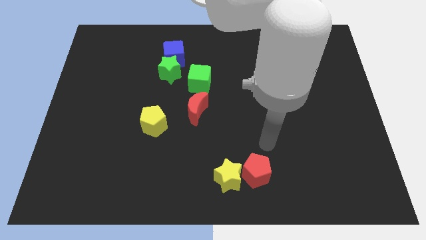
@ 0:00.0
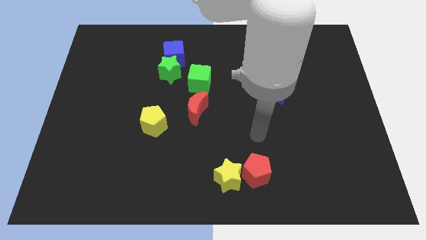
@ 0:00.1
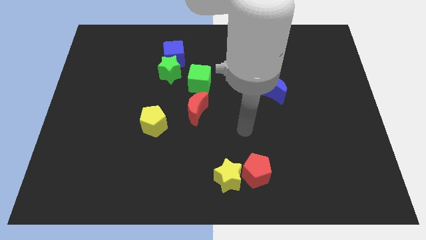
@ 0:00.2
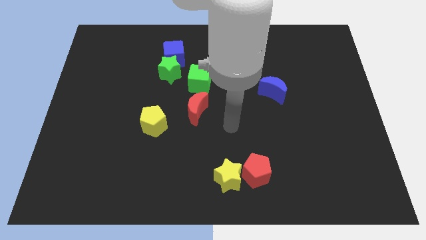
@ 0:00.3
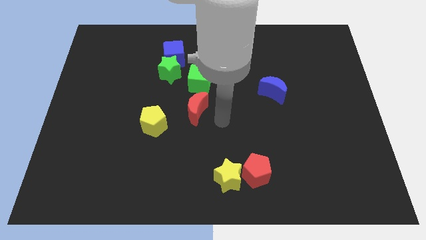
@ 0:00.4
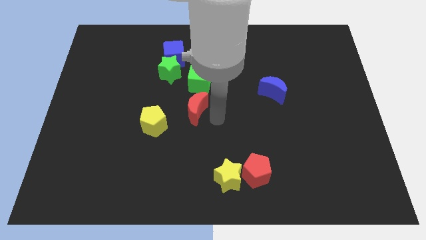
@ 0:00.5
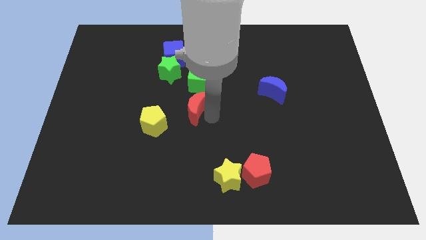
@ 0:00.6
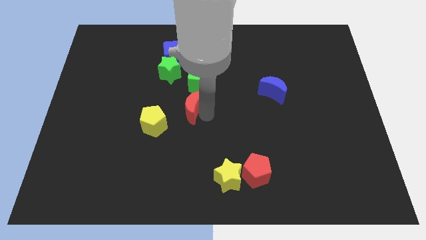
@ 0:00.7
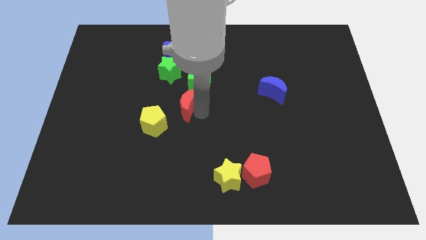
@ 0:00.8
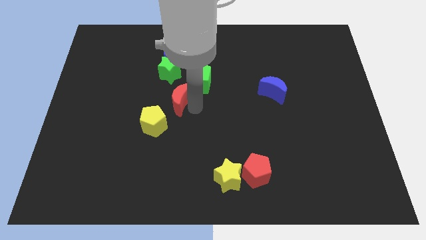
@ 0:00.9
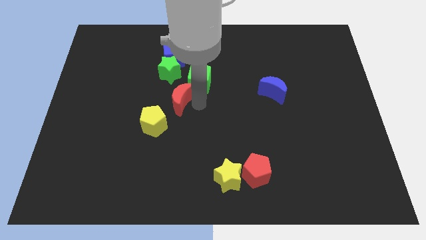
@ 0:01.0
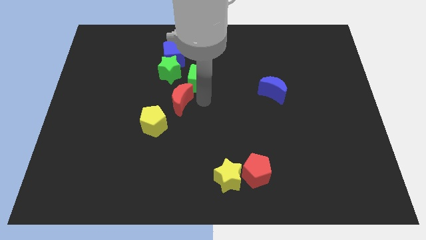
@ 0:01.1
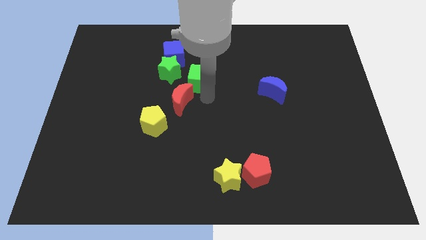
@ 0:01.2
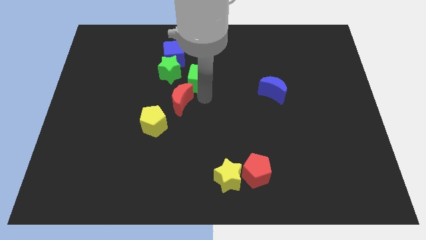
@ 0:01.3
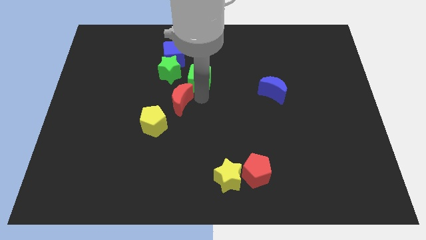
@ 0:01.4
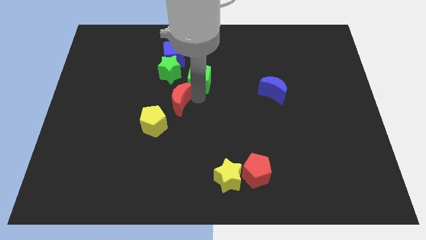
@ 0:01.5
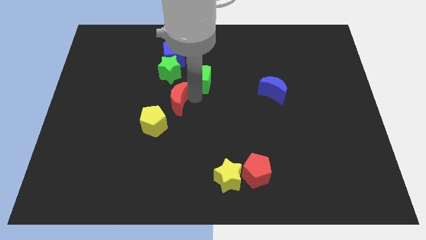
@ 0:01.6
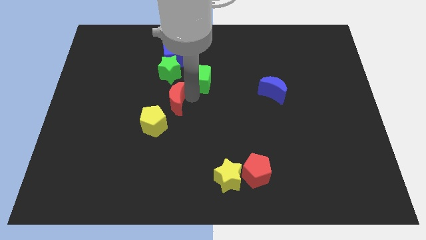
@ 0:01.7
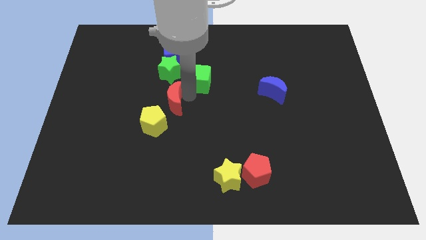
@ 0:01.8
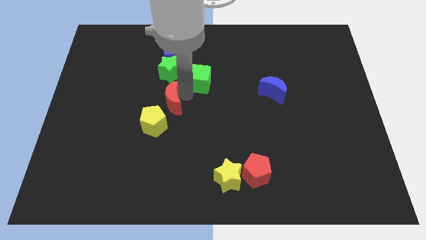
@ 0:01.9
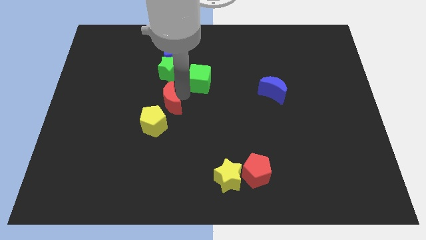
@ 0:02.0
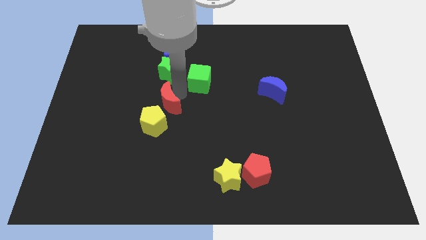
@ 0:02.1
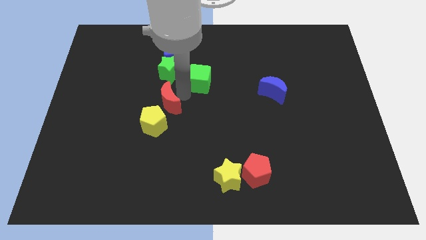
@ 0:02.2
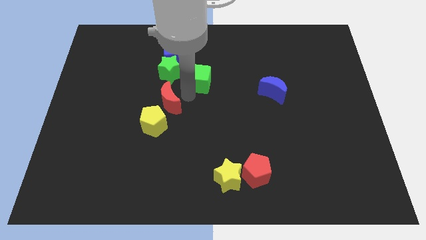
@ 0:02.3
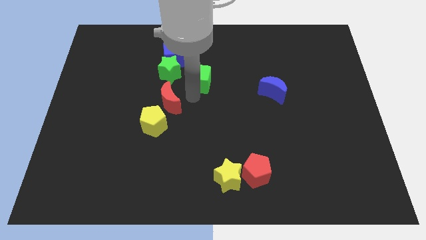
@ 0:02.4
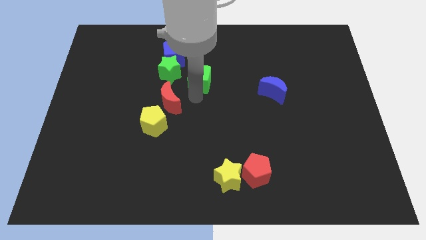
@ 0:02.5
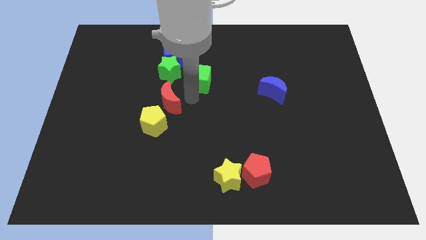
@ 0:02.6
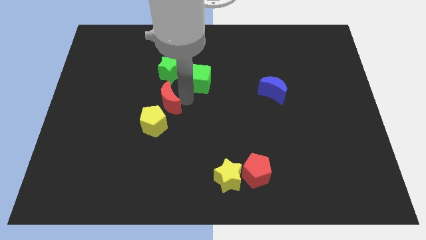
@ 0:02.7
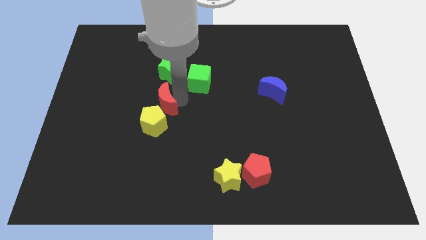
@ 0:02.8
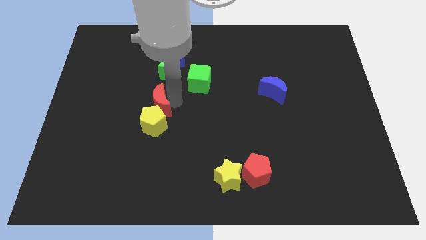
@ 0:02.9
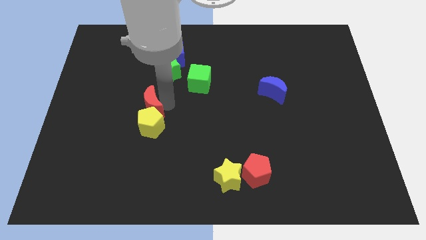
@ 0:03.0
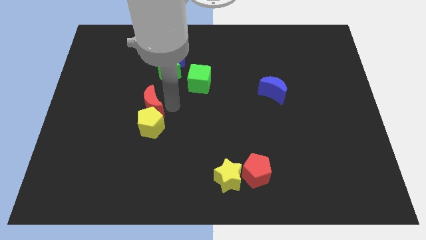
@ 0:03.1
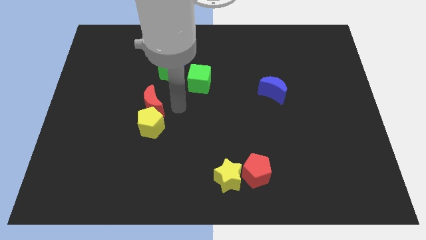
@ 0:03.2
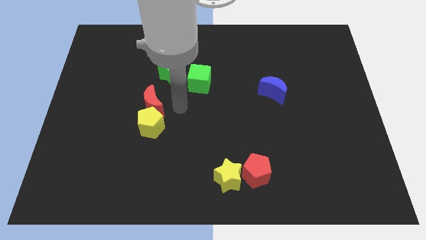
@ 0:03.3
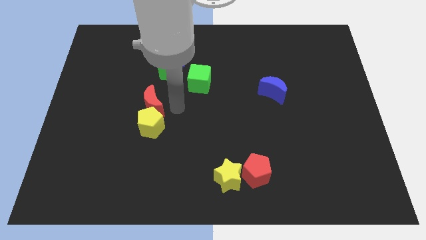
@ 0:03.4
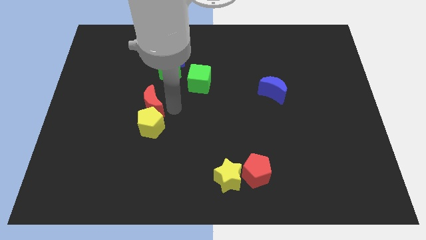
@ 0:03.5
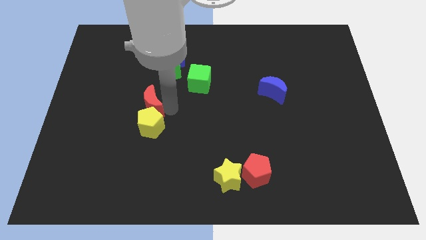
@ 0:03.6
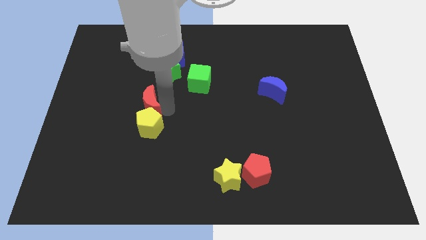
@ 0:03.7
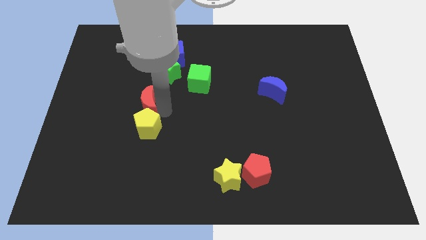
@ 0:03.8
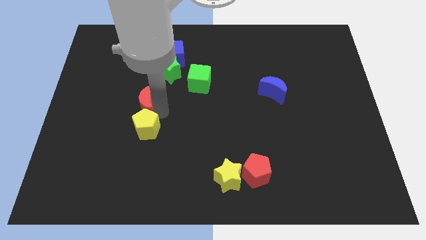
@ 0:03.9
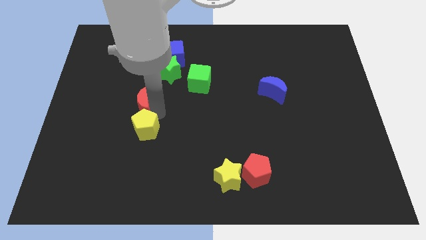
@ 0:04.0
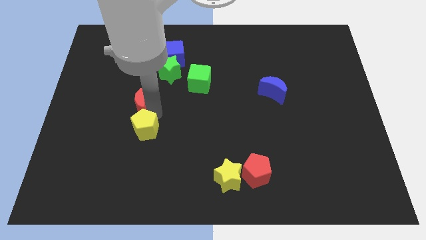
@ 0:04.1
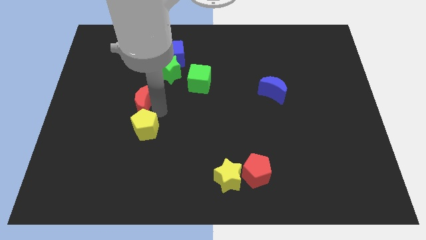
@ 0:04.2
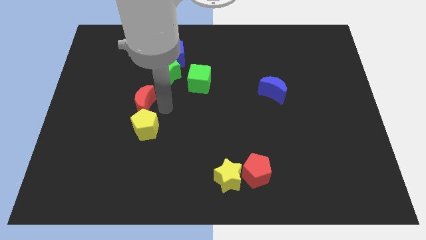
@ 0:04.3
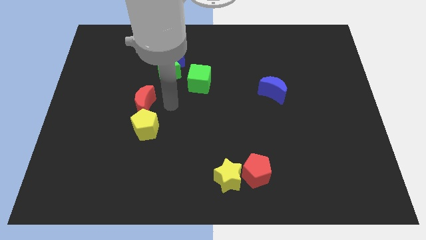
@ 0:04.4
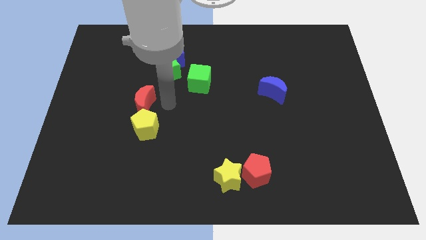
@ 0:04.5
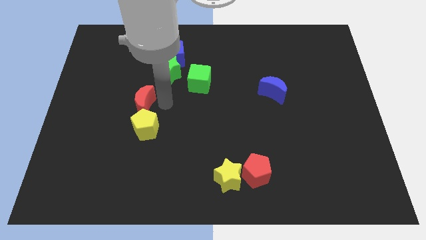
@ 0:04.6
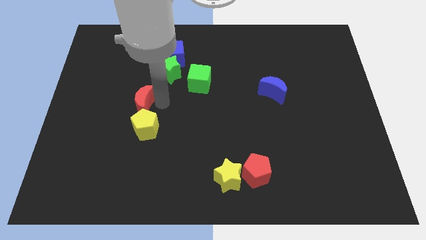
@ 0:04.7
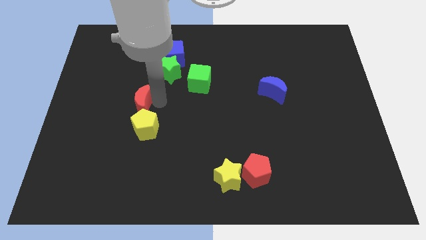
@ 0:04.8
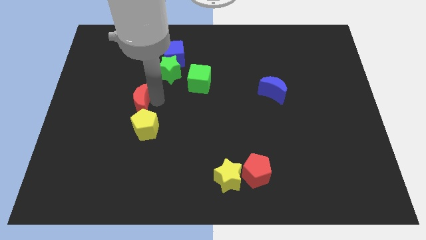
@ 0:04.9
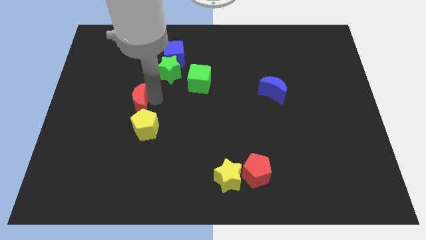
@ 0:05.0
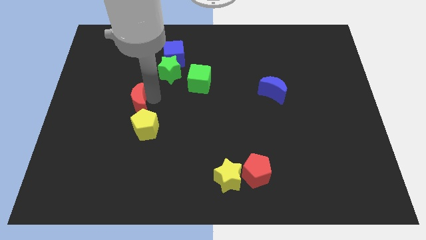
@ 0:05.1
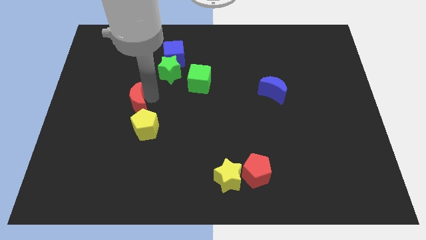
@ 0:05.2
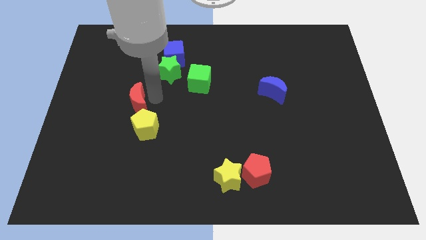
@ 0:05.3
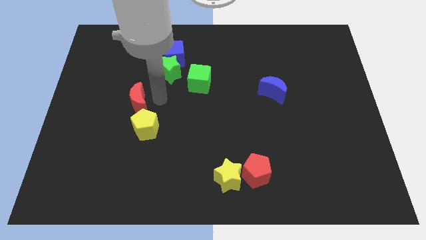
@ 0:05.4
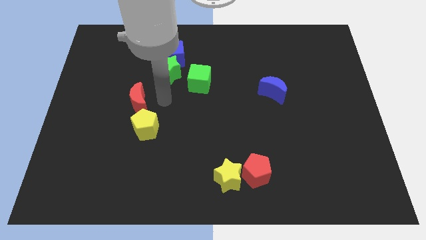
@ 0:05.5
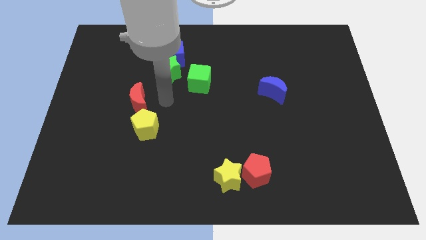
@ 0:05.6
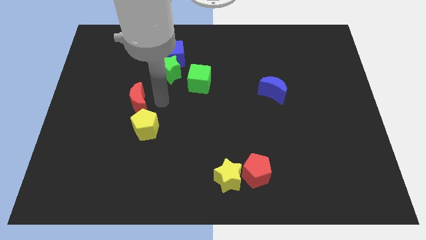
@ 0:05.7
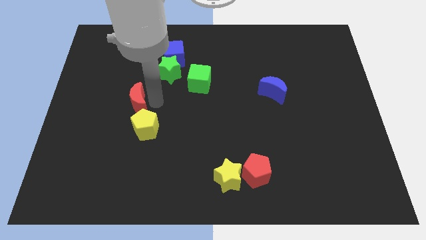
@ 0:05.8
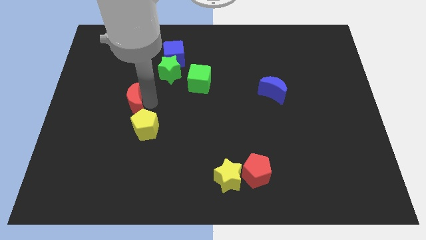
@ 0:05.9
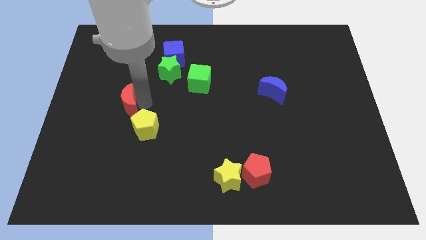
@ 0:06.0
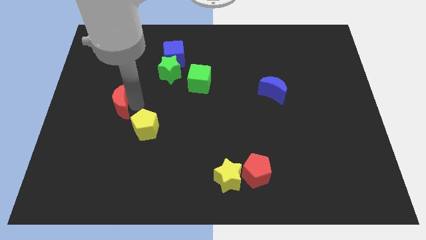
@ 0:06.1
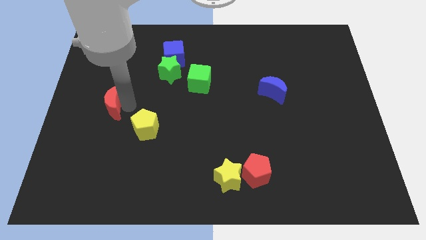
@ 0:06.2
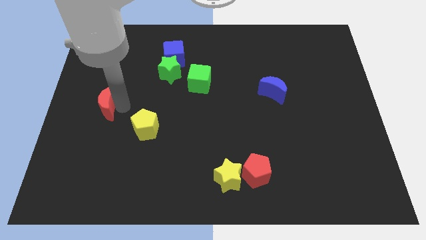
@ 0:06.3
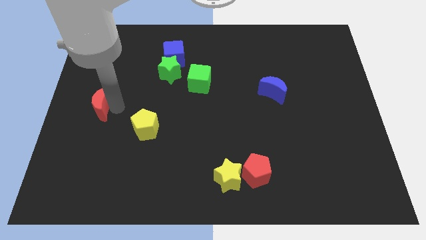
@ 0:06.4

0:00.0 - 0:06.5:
push the red moon to the left side
